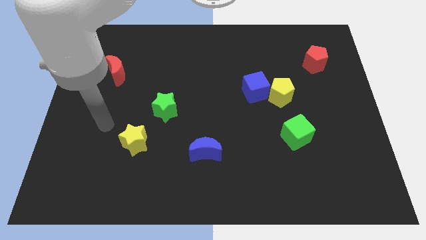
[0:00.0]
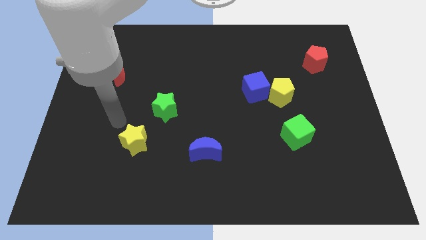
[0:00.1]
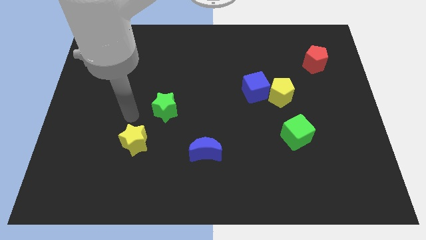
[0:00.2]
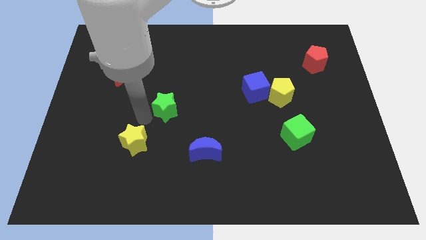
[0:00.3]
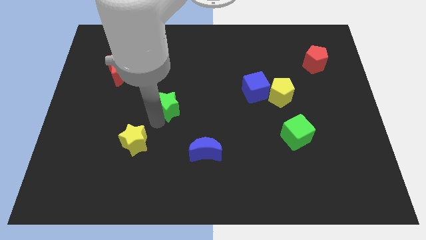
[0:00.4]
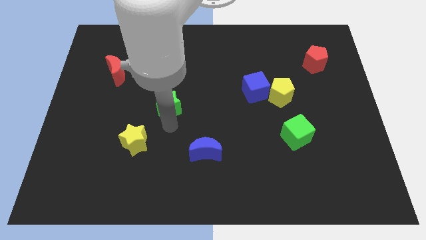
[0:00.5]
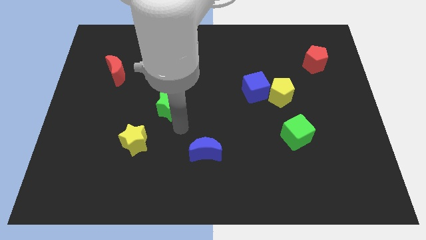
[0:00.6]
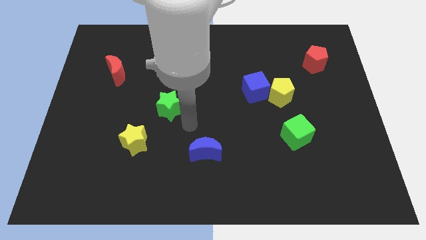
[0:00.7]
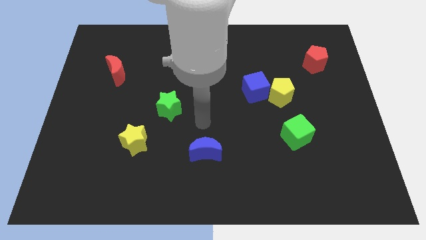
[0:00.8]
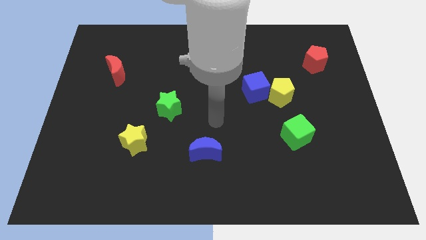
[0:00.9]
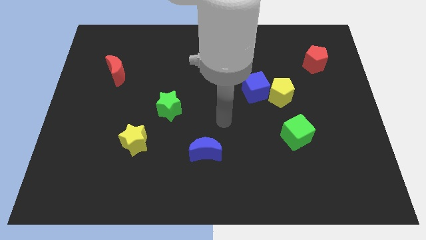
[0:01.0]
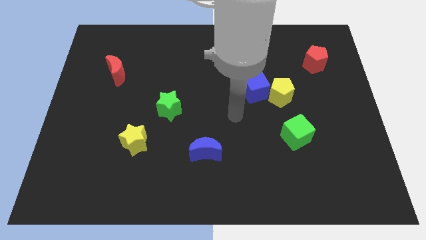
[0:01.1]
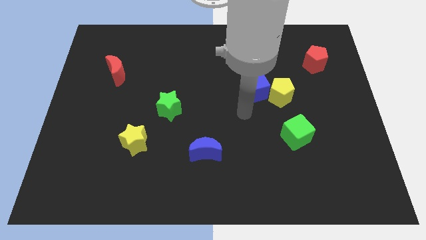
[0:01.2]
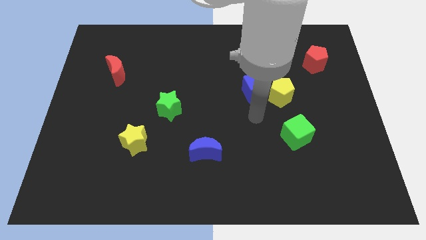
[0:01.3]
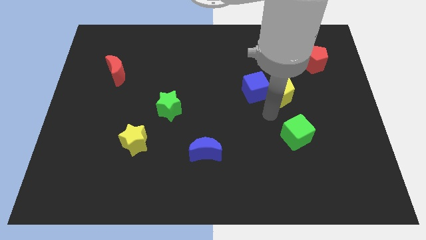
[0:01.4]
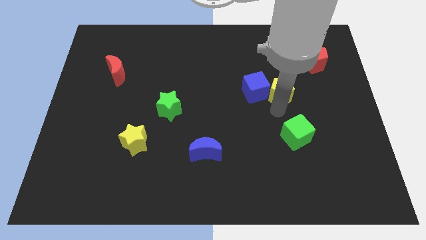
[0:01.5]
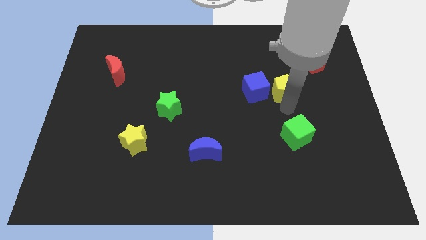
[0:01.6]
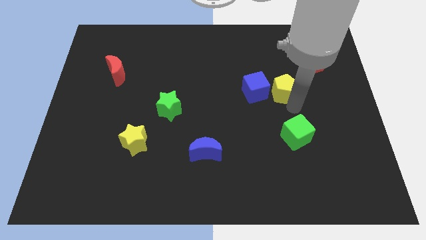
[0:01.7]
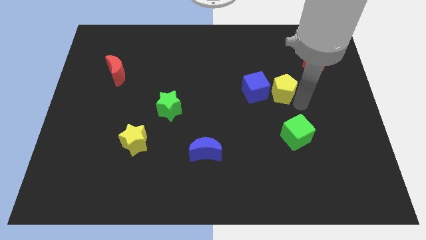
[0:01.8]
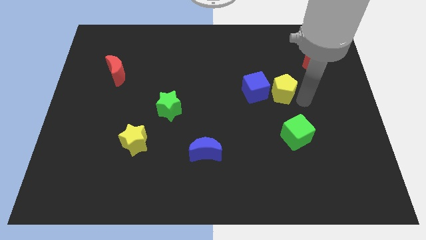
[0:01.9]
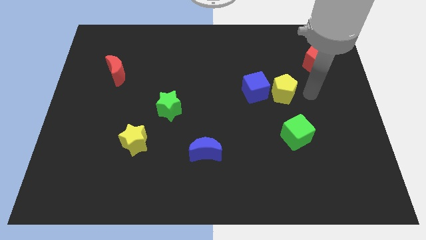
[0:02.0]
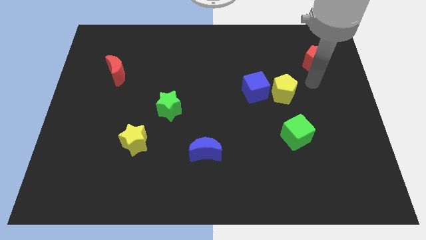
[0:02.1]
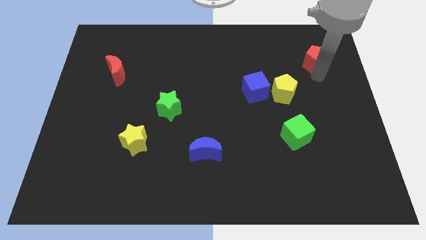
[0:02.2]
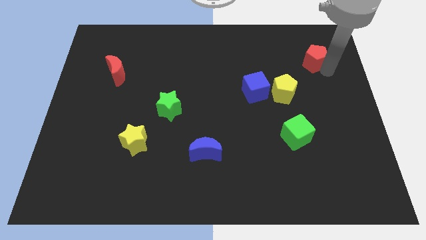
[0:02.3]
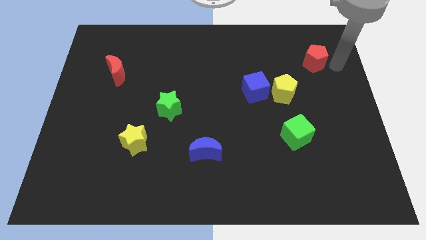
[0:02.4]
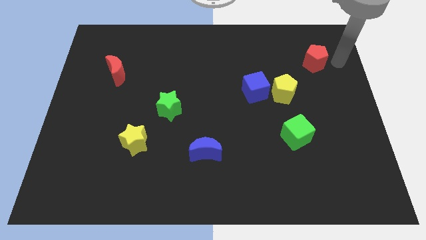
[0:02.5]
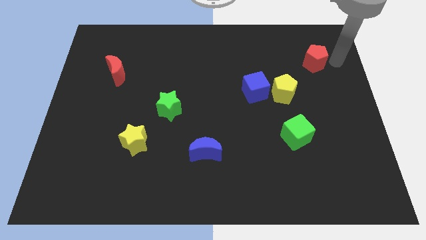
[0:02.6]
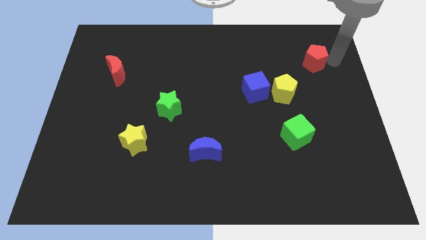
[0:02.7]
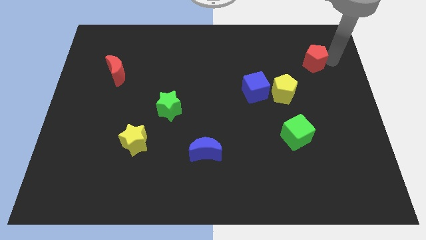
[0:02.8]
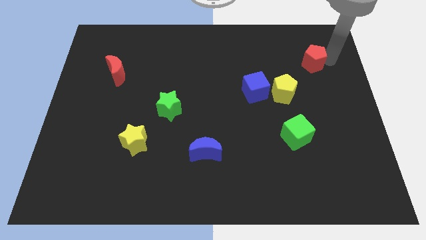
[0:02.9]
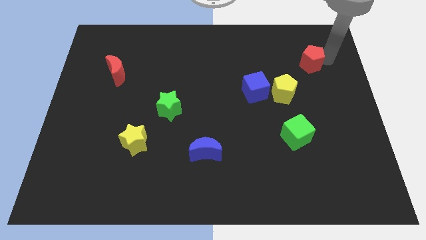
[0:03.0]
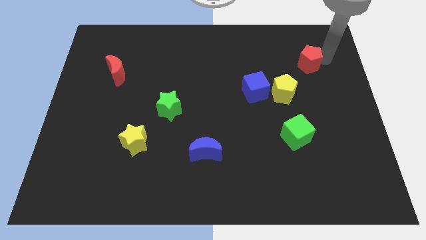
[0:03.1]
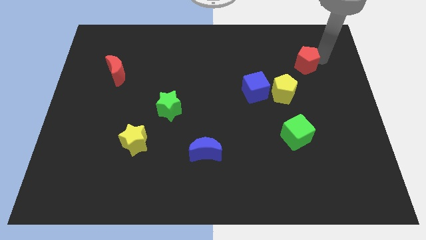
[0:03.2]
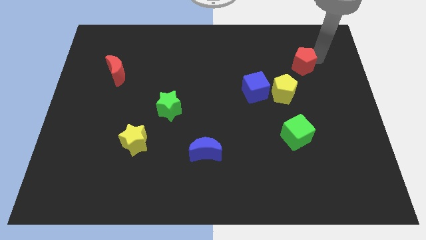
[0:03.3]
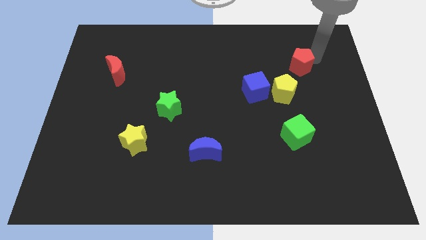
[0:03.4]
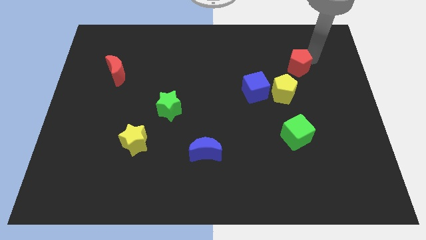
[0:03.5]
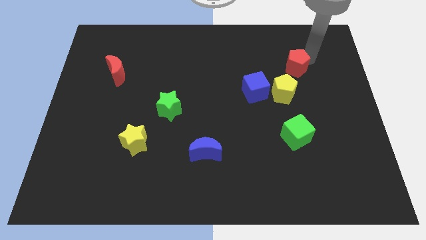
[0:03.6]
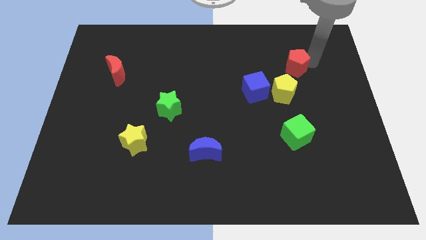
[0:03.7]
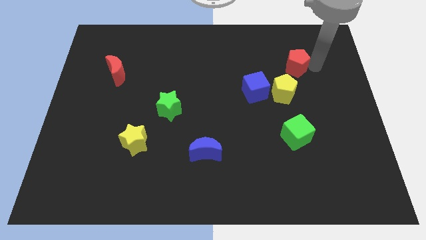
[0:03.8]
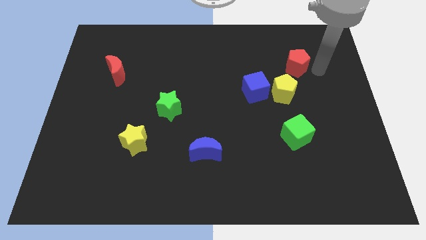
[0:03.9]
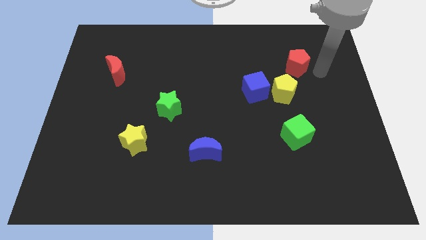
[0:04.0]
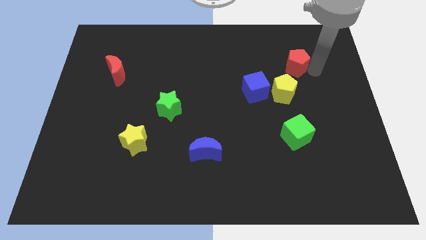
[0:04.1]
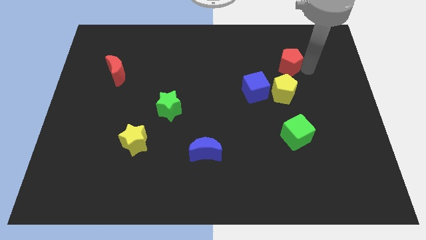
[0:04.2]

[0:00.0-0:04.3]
slide the red pentagon to the left a little bit

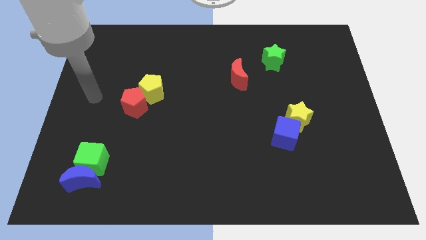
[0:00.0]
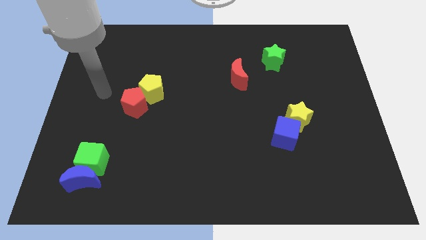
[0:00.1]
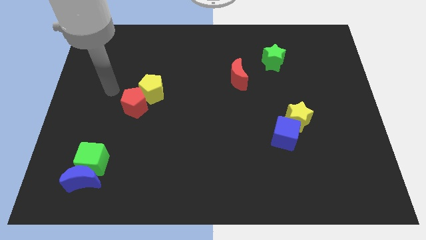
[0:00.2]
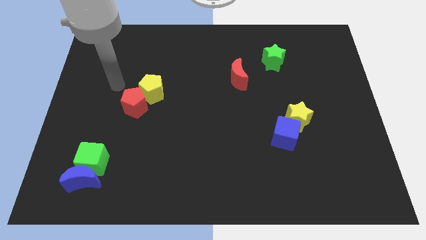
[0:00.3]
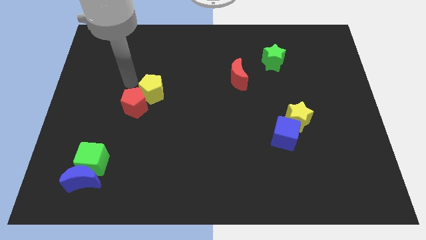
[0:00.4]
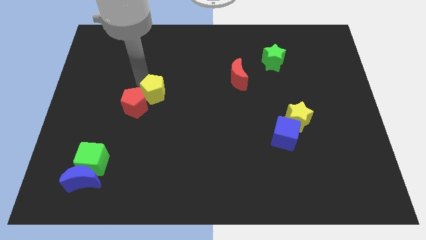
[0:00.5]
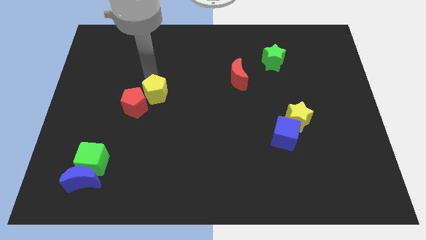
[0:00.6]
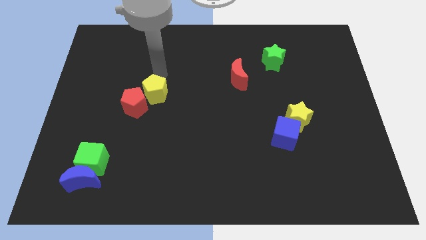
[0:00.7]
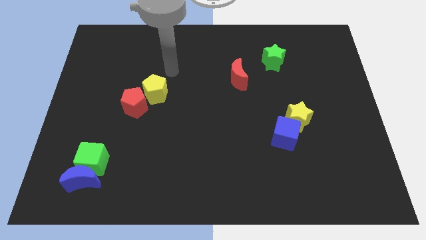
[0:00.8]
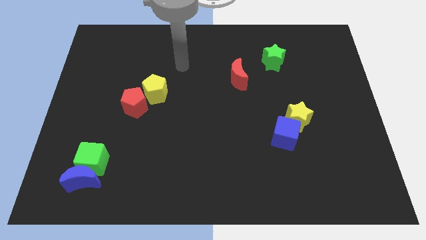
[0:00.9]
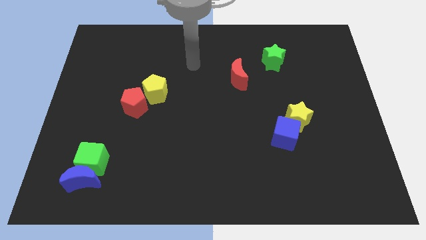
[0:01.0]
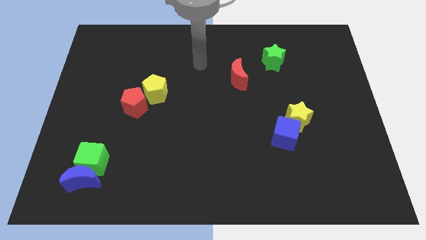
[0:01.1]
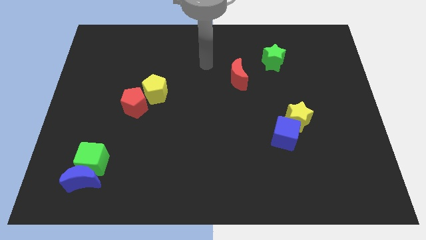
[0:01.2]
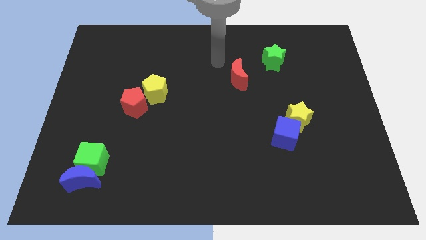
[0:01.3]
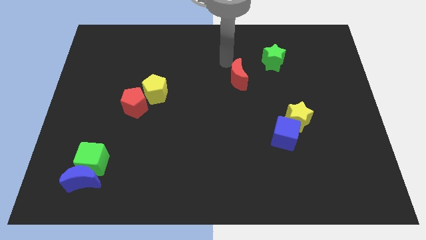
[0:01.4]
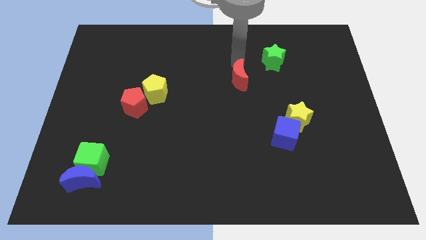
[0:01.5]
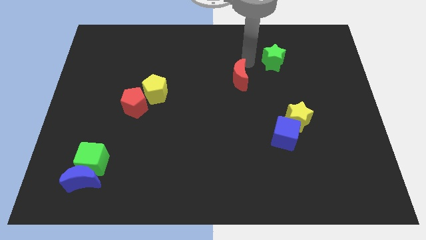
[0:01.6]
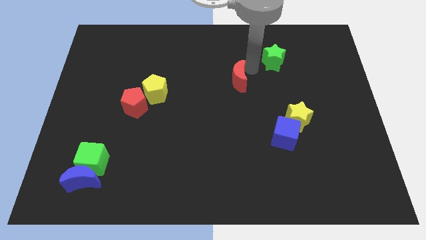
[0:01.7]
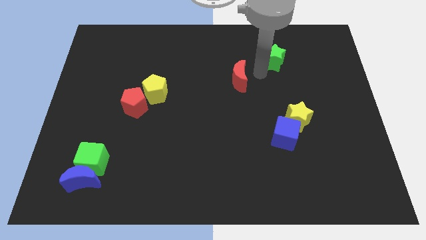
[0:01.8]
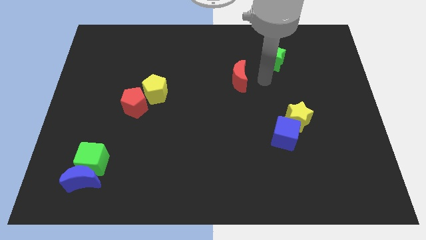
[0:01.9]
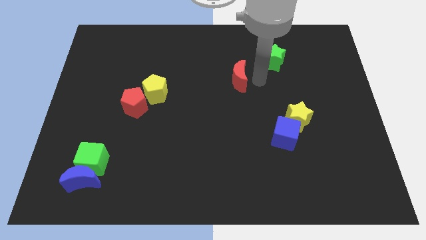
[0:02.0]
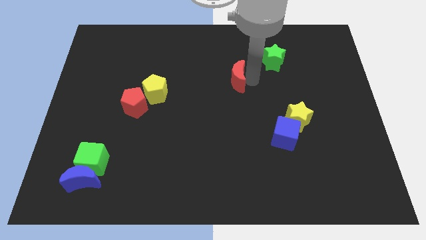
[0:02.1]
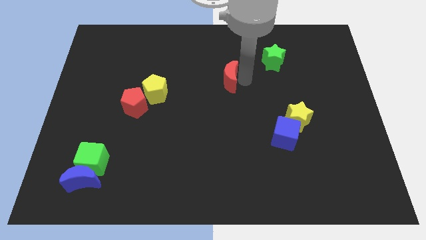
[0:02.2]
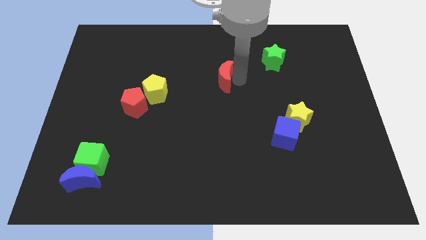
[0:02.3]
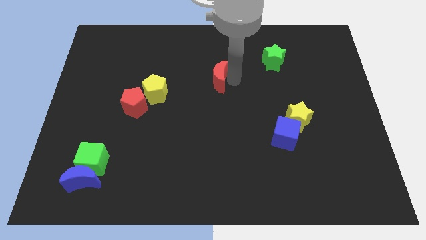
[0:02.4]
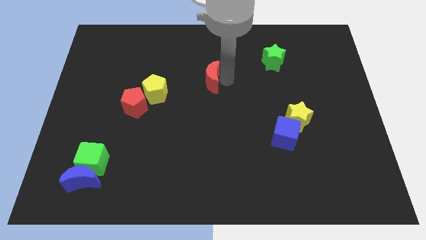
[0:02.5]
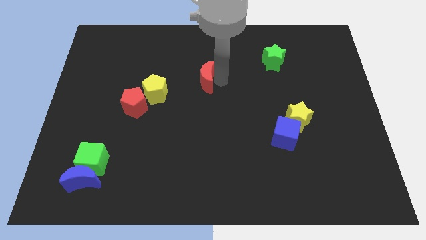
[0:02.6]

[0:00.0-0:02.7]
slightly slide the red moon to the left

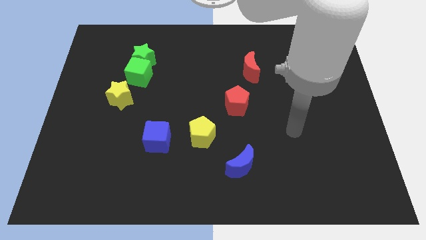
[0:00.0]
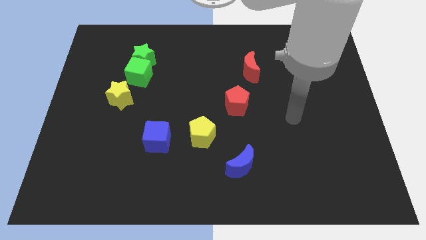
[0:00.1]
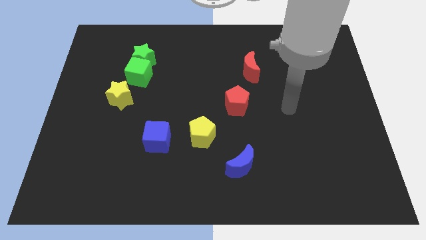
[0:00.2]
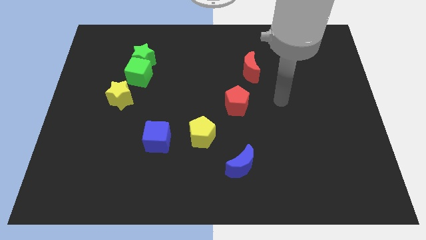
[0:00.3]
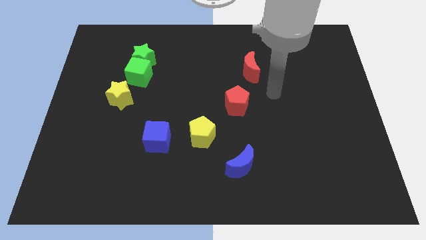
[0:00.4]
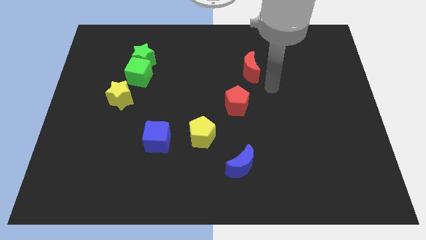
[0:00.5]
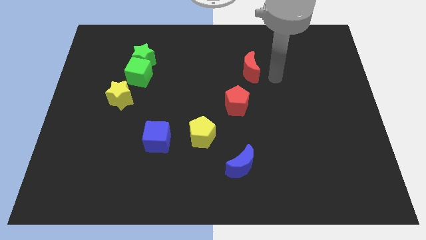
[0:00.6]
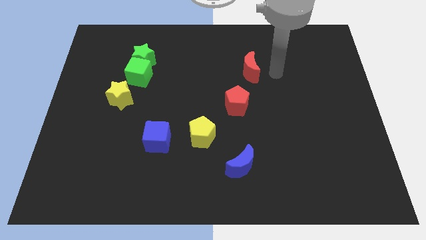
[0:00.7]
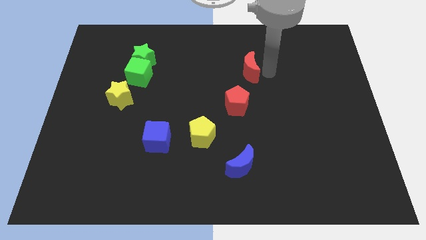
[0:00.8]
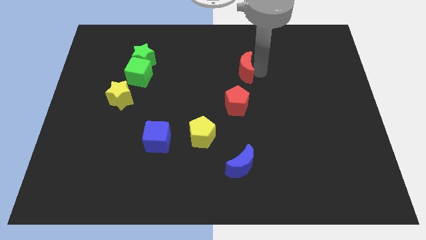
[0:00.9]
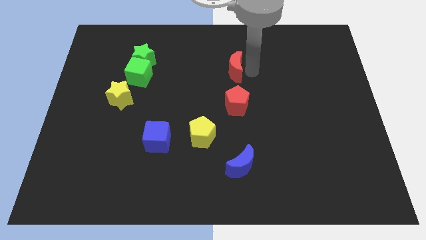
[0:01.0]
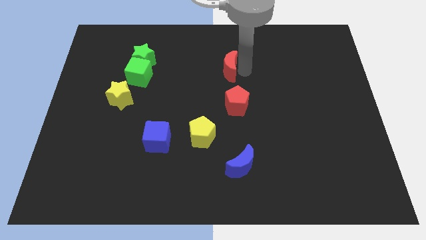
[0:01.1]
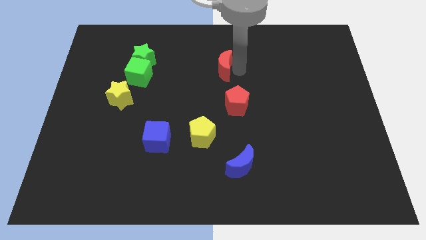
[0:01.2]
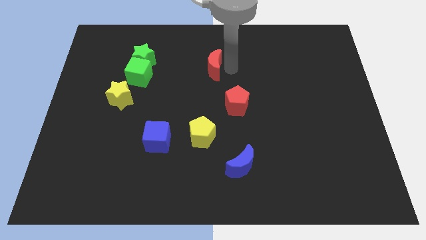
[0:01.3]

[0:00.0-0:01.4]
slightly move the red moon left
